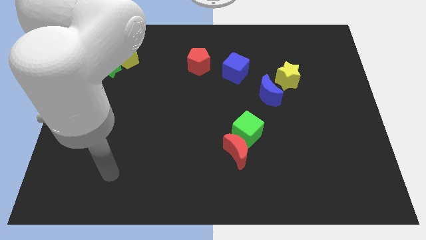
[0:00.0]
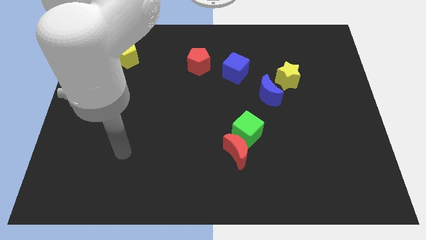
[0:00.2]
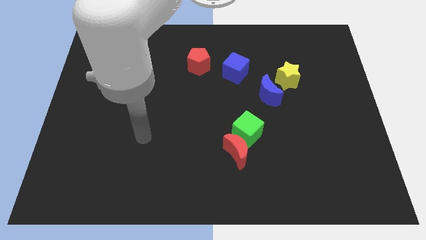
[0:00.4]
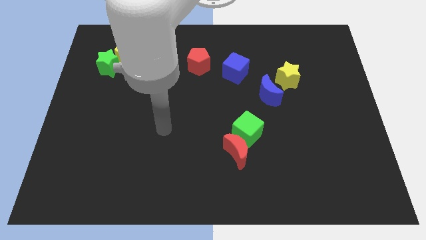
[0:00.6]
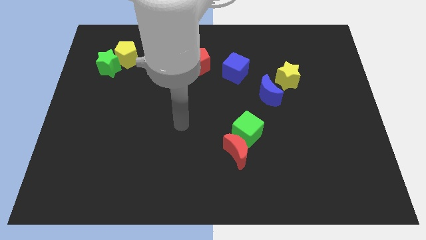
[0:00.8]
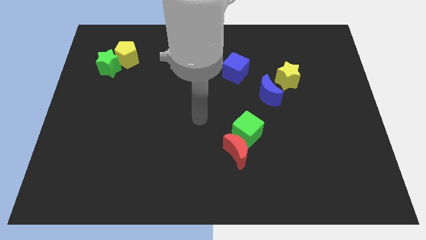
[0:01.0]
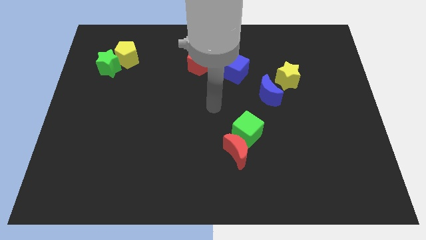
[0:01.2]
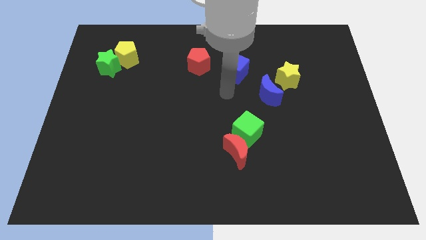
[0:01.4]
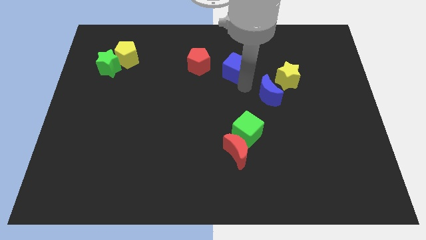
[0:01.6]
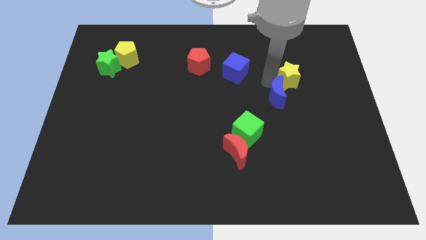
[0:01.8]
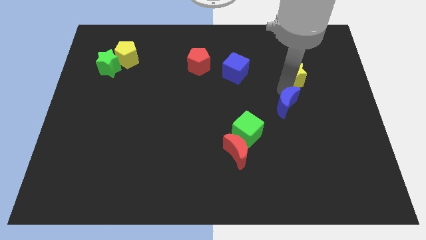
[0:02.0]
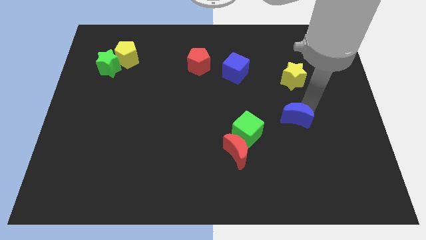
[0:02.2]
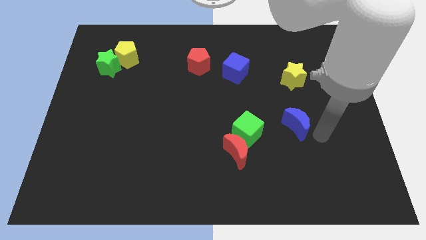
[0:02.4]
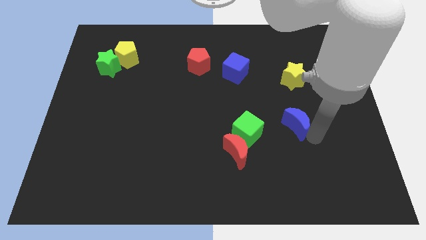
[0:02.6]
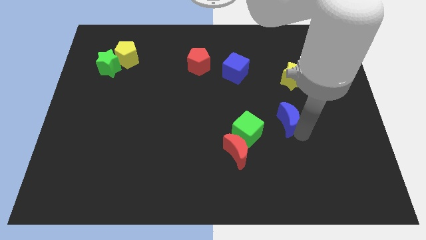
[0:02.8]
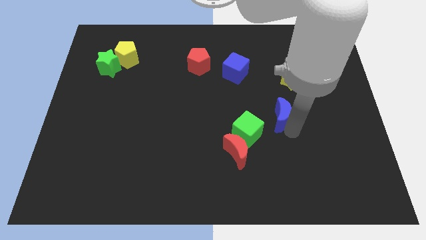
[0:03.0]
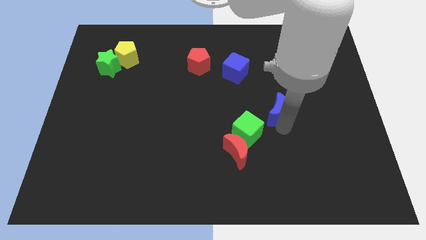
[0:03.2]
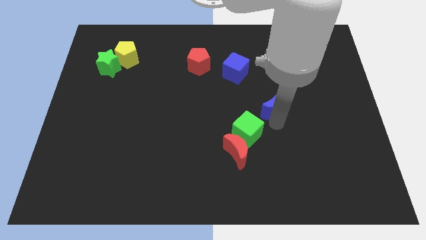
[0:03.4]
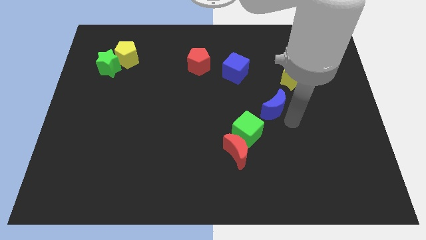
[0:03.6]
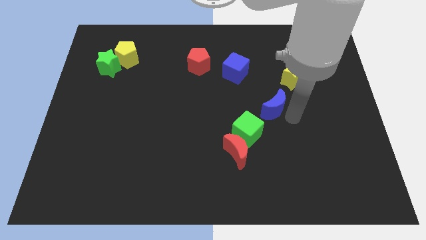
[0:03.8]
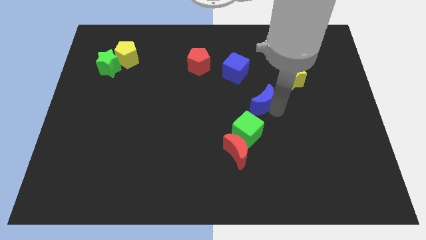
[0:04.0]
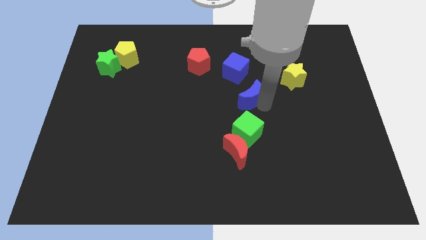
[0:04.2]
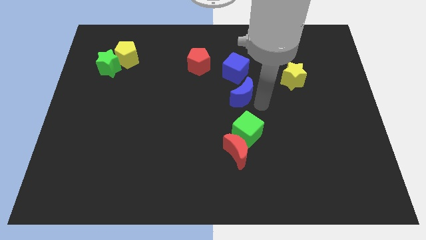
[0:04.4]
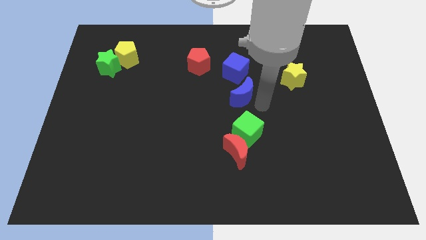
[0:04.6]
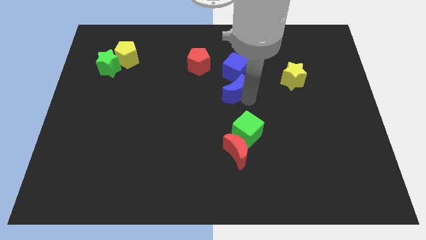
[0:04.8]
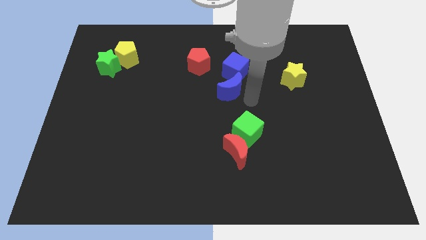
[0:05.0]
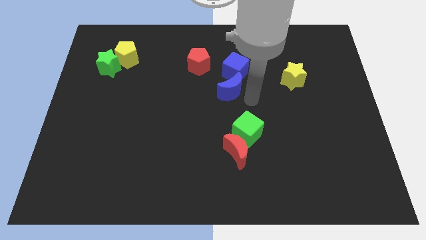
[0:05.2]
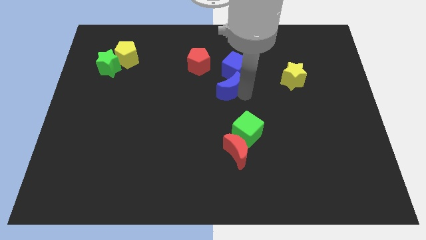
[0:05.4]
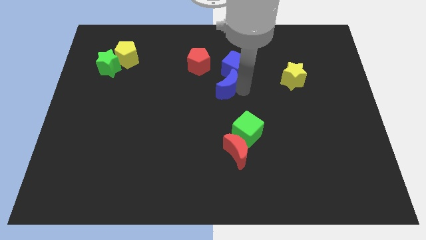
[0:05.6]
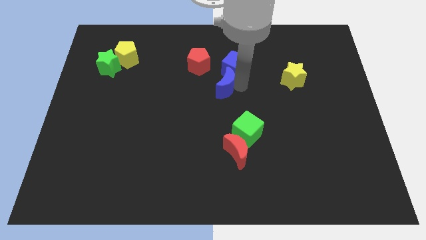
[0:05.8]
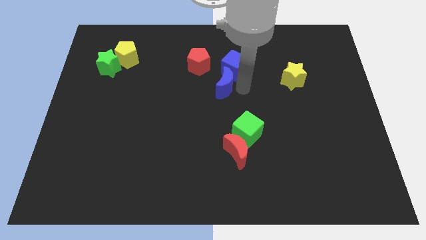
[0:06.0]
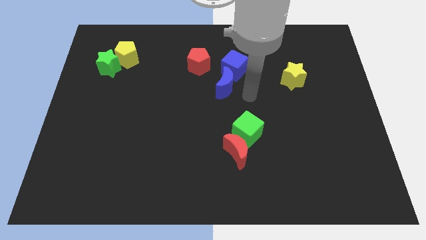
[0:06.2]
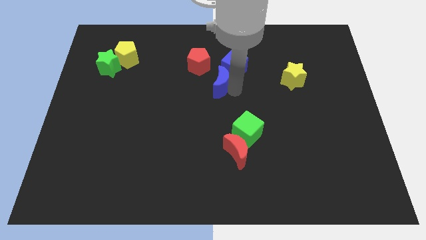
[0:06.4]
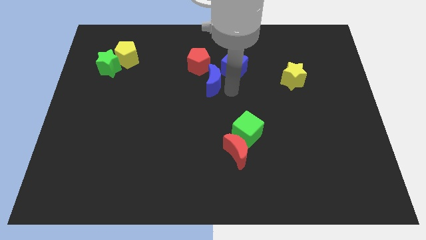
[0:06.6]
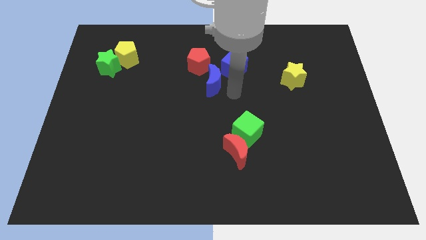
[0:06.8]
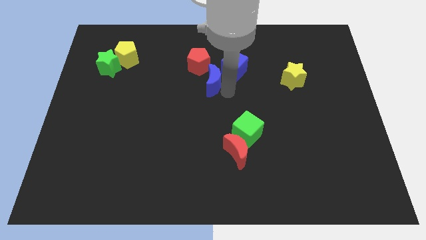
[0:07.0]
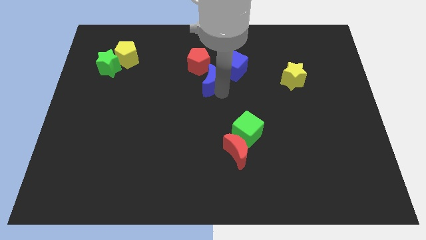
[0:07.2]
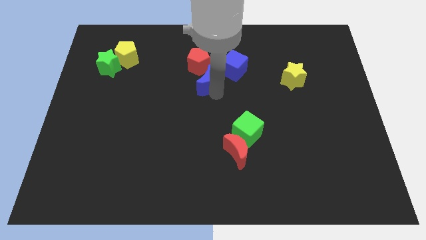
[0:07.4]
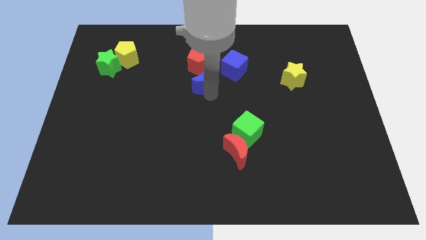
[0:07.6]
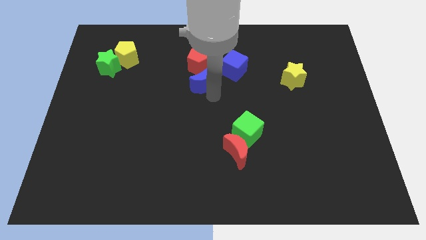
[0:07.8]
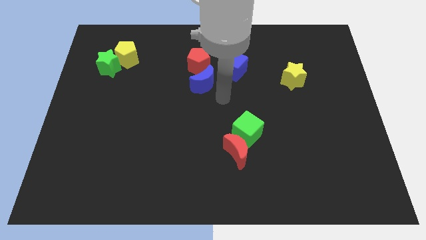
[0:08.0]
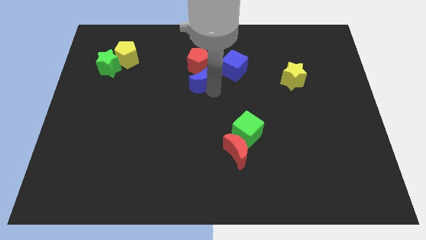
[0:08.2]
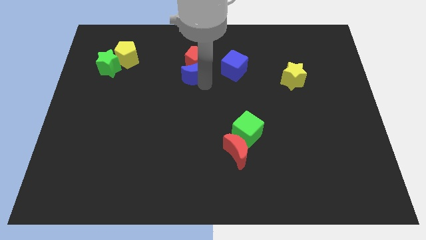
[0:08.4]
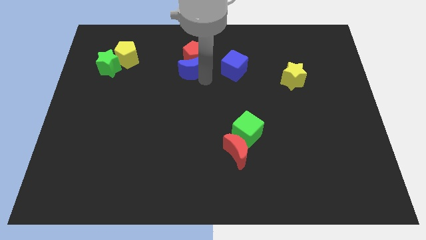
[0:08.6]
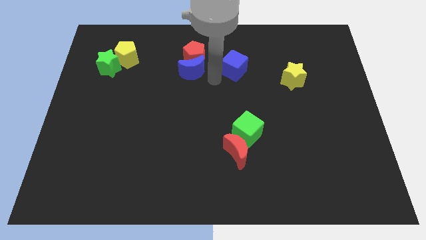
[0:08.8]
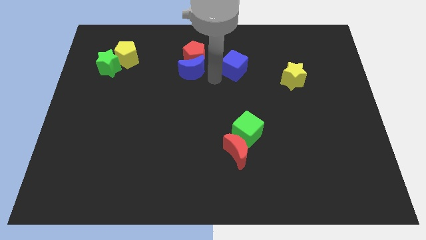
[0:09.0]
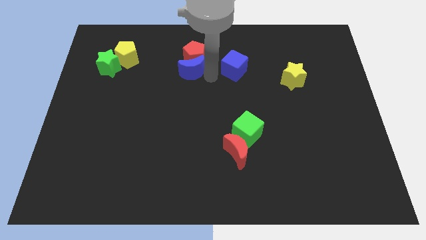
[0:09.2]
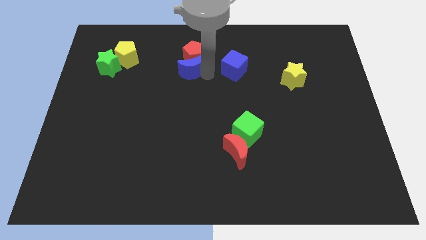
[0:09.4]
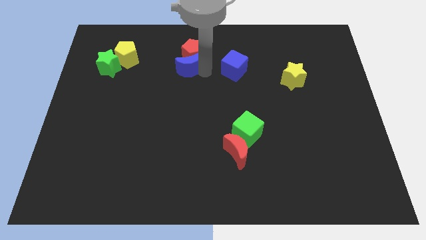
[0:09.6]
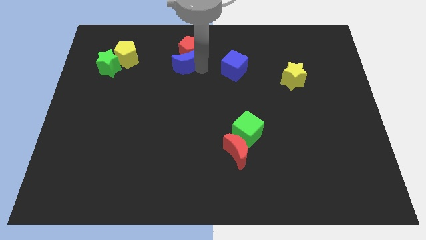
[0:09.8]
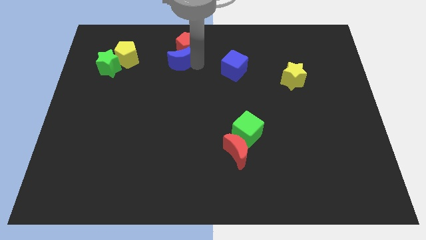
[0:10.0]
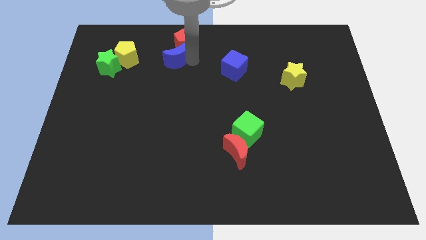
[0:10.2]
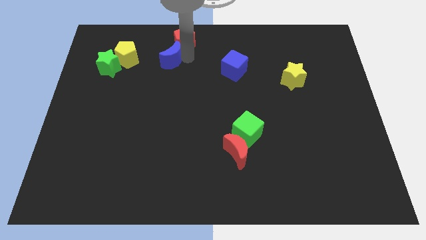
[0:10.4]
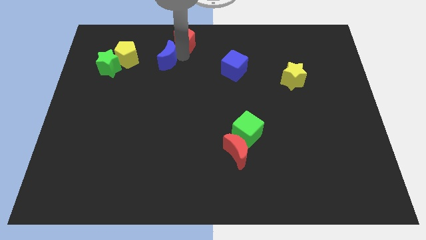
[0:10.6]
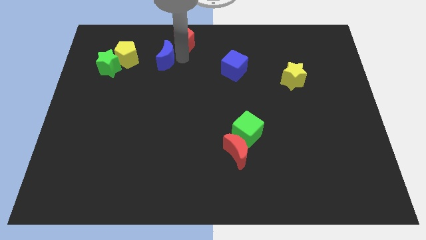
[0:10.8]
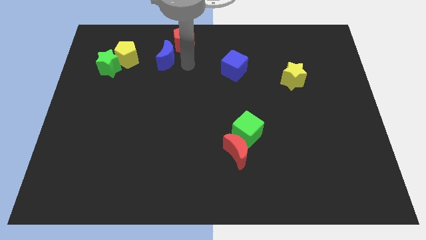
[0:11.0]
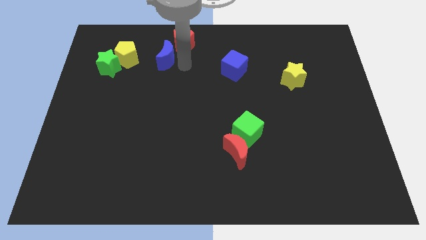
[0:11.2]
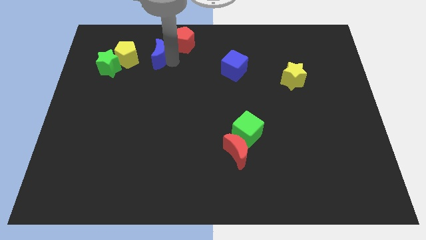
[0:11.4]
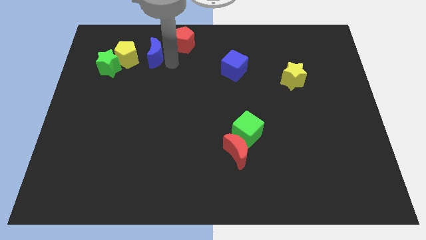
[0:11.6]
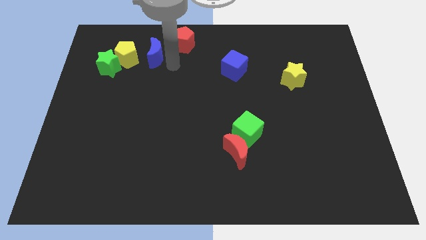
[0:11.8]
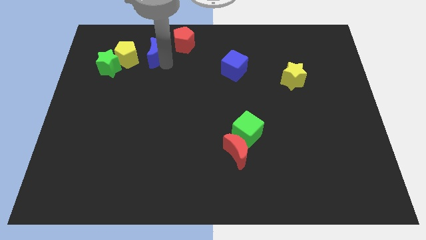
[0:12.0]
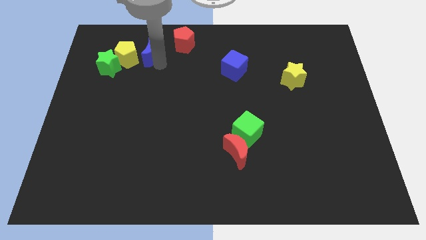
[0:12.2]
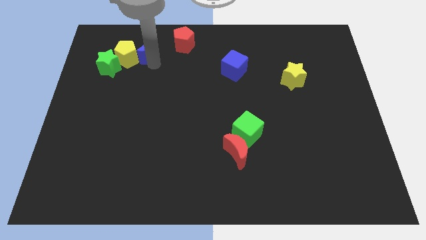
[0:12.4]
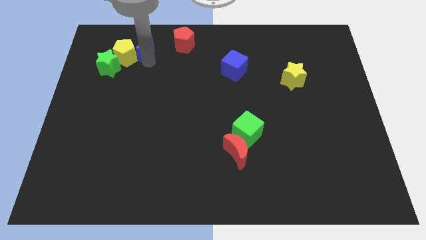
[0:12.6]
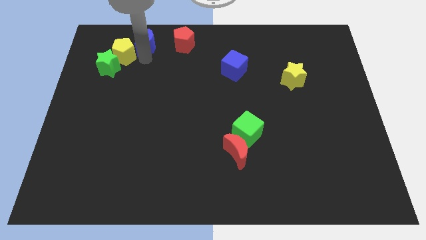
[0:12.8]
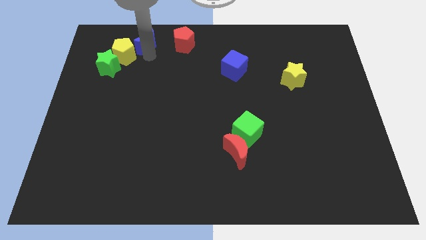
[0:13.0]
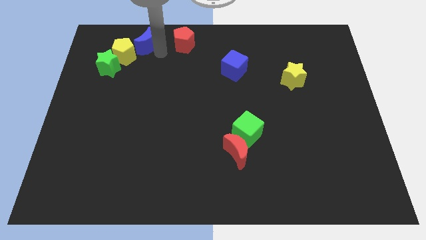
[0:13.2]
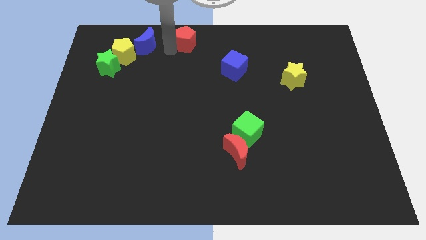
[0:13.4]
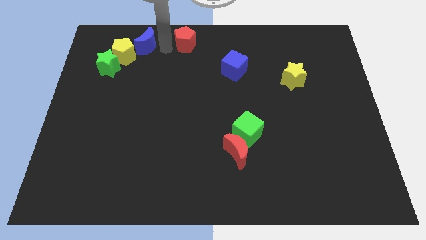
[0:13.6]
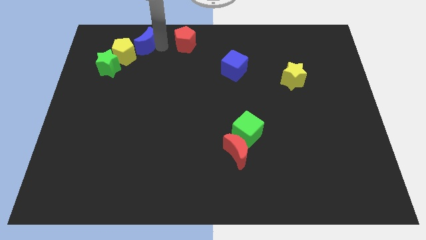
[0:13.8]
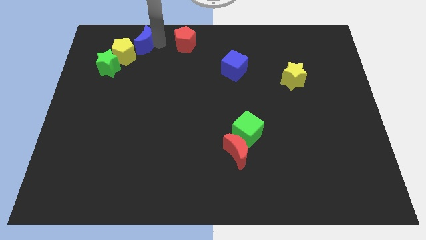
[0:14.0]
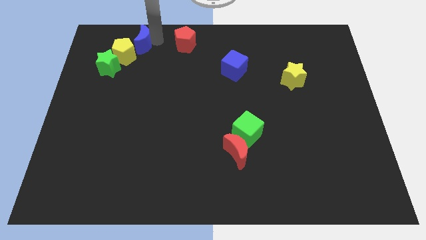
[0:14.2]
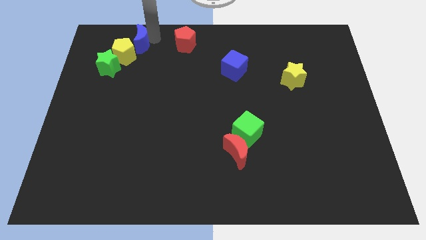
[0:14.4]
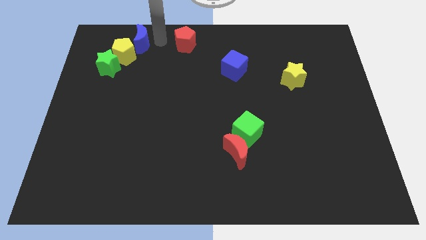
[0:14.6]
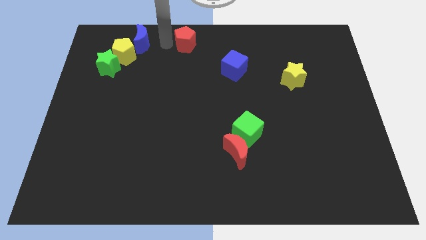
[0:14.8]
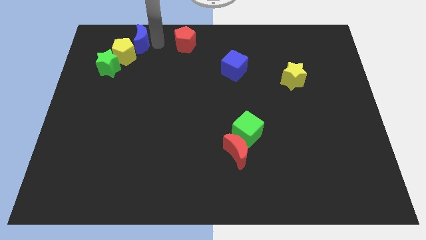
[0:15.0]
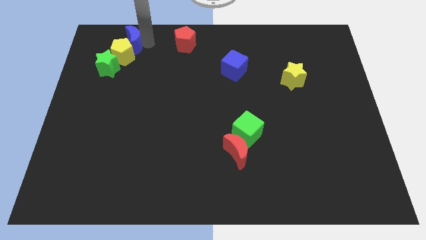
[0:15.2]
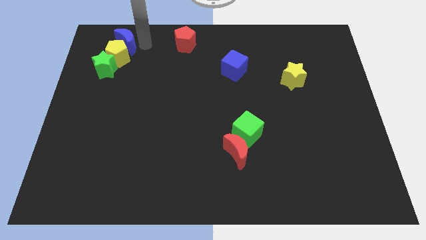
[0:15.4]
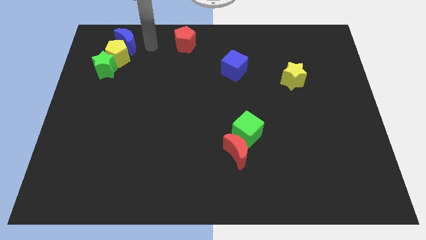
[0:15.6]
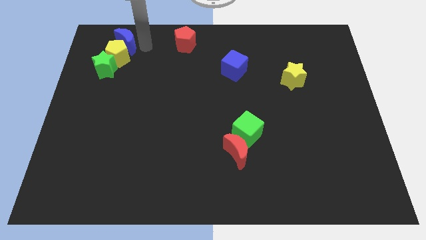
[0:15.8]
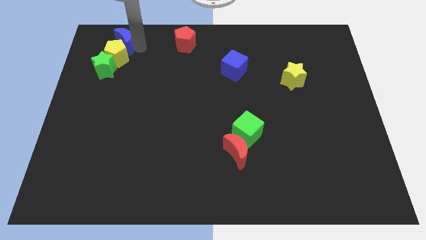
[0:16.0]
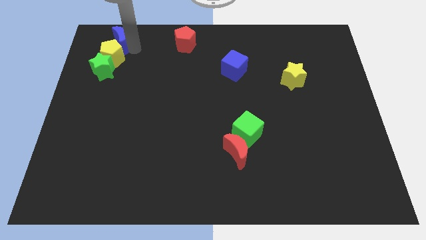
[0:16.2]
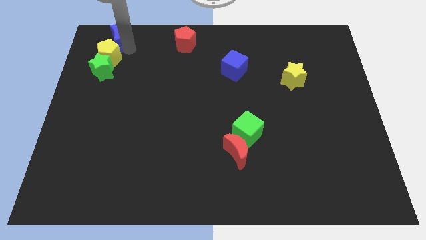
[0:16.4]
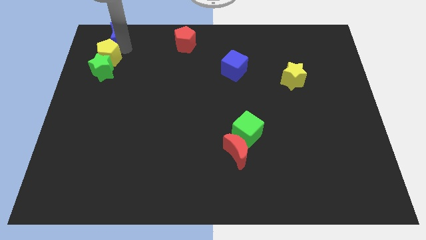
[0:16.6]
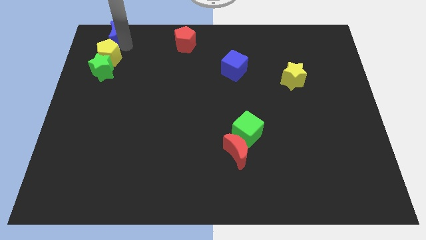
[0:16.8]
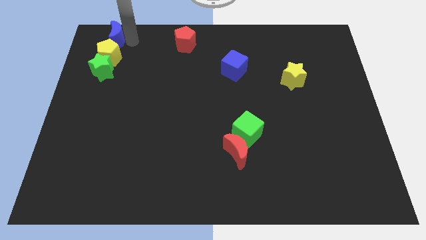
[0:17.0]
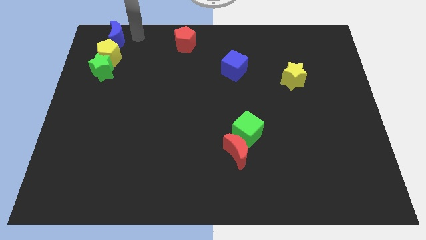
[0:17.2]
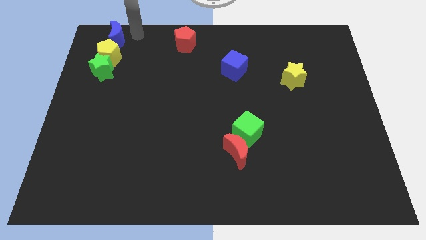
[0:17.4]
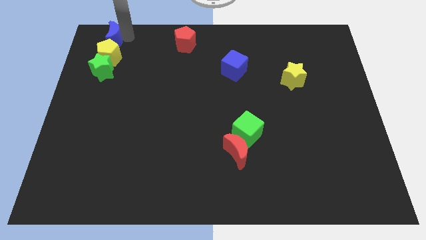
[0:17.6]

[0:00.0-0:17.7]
put the blue moon to the top left corner
